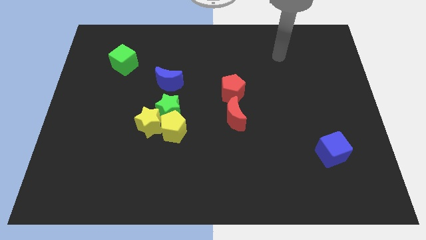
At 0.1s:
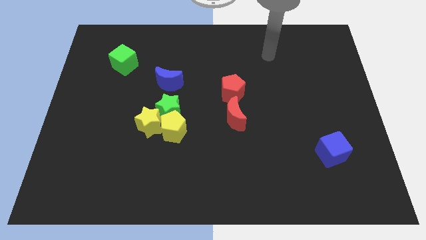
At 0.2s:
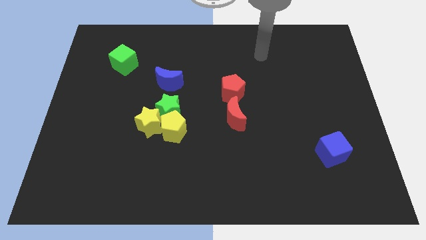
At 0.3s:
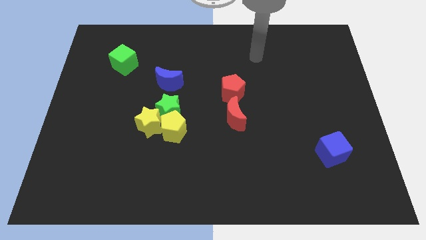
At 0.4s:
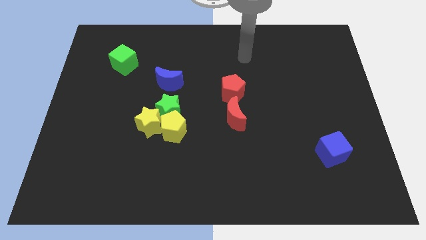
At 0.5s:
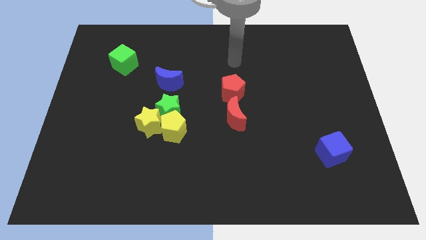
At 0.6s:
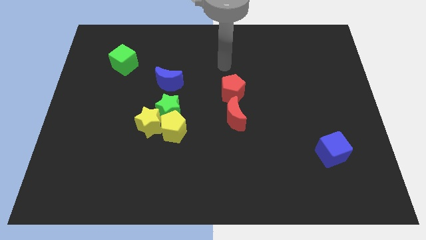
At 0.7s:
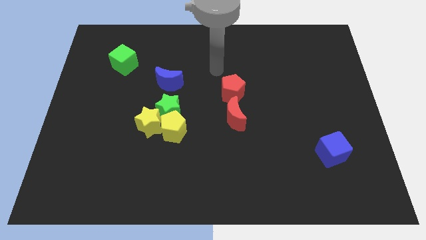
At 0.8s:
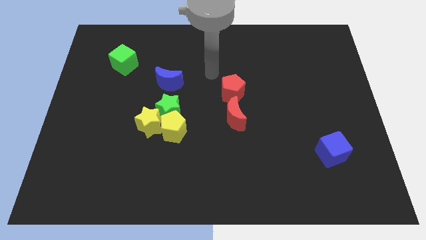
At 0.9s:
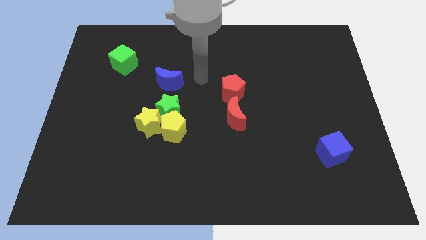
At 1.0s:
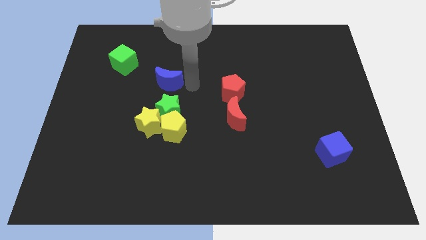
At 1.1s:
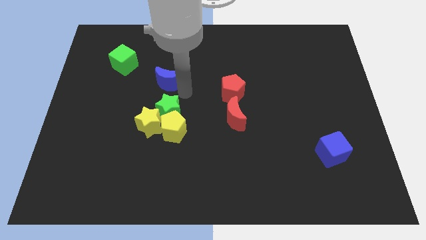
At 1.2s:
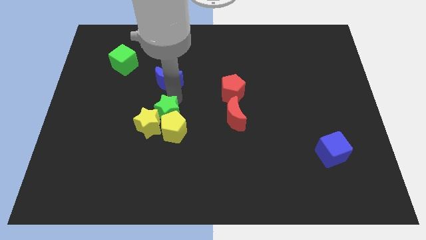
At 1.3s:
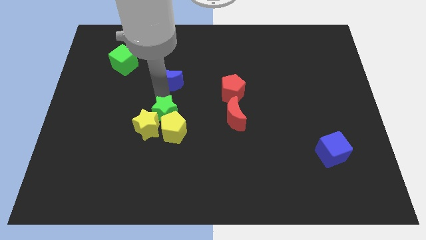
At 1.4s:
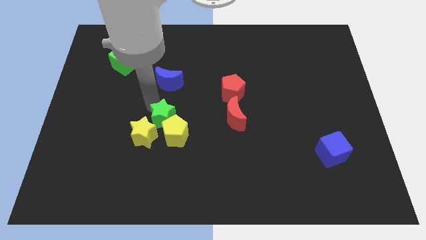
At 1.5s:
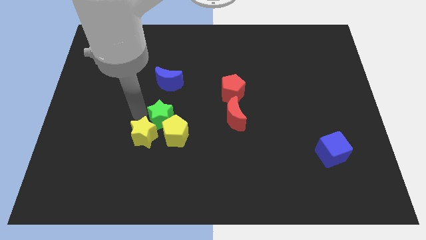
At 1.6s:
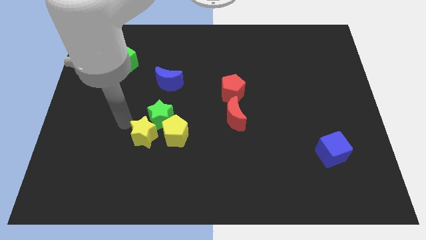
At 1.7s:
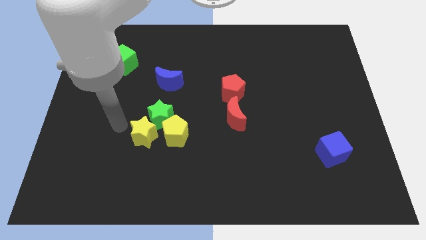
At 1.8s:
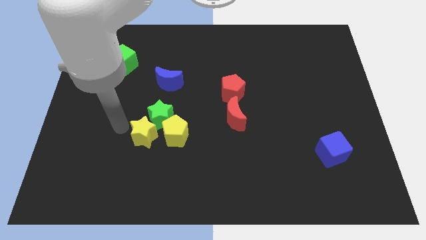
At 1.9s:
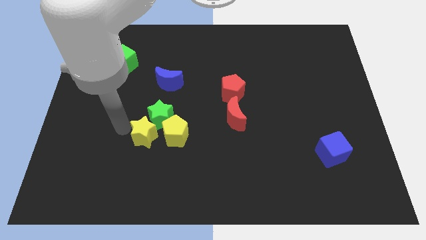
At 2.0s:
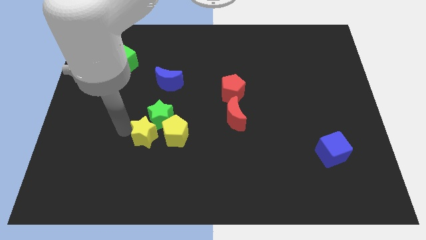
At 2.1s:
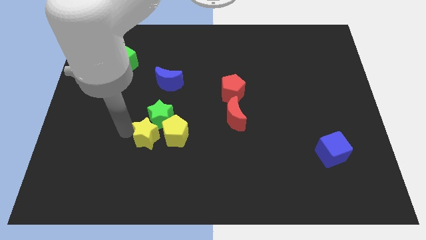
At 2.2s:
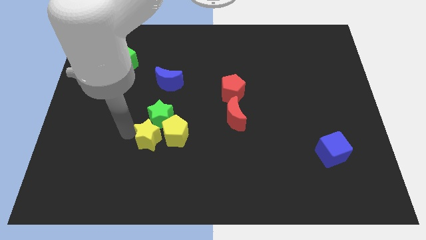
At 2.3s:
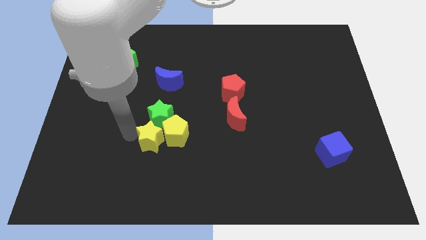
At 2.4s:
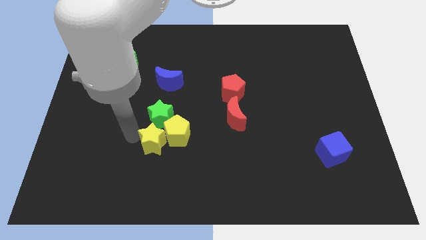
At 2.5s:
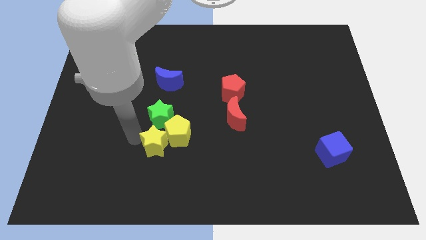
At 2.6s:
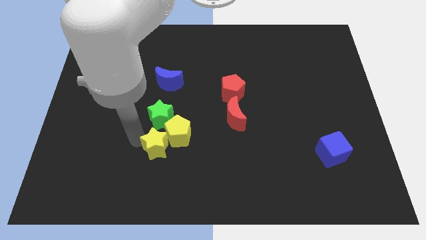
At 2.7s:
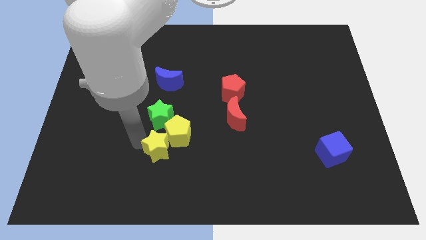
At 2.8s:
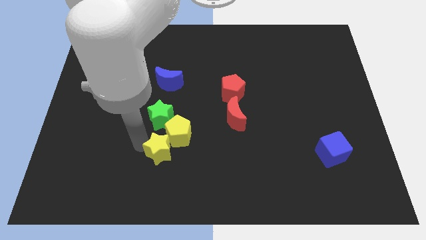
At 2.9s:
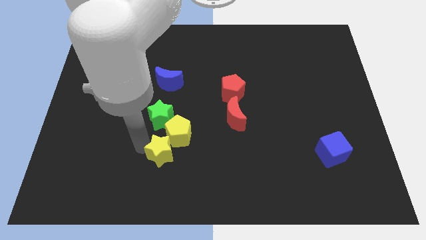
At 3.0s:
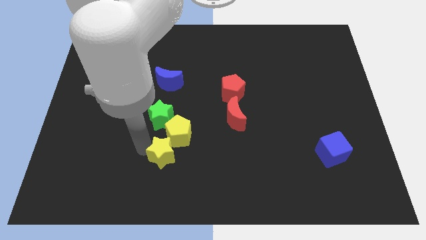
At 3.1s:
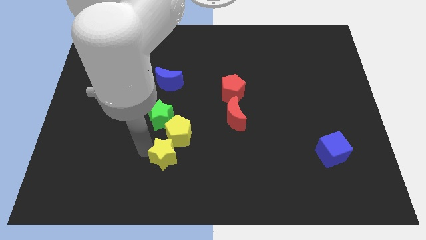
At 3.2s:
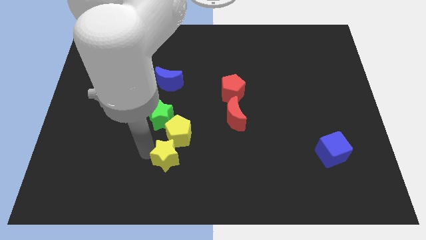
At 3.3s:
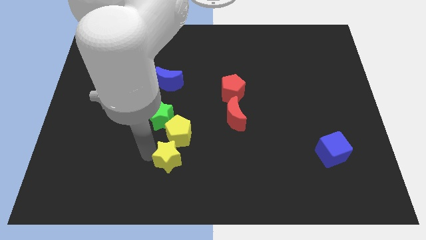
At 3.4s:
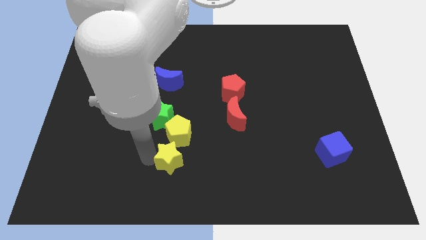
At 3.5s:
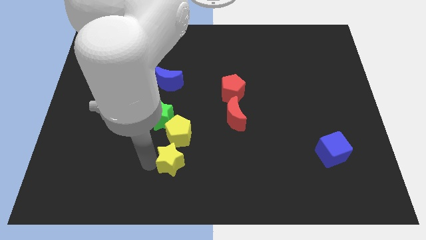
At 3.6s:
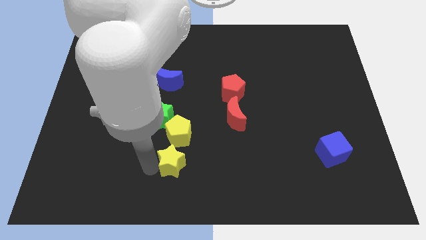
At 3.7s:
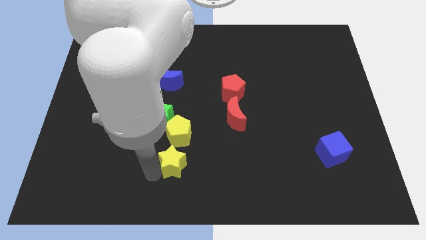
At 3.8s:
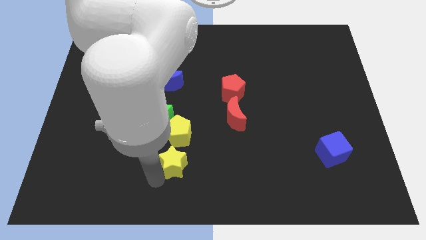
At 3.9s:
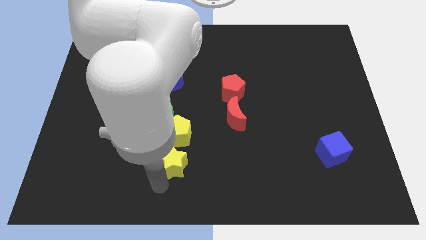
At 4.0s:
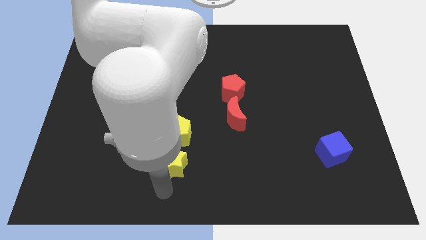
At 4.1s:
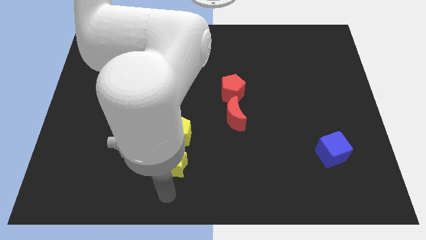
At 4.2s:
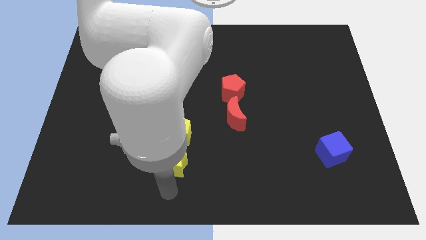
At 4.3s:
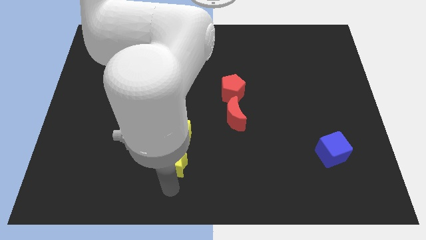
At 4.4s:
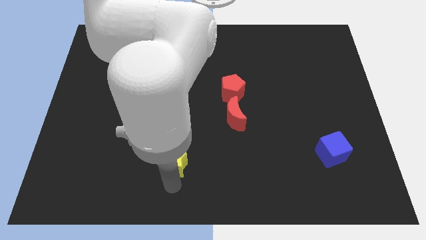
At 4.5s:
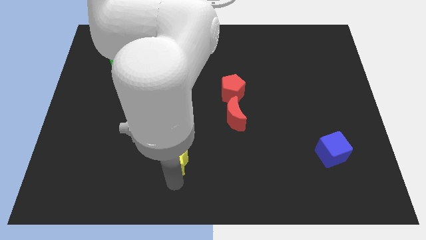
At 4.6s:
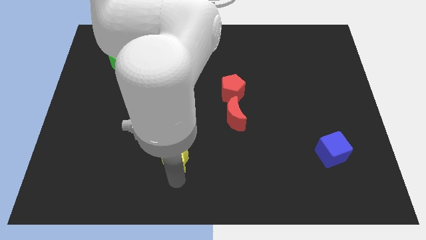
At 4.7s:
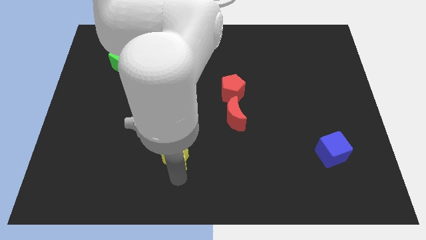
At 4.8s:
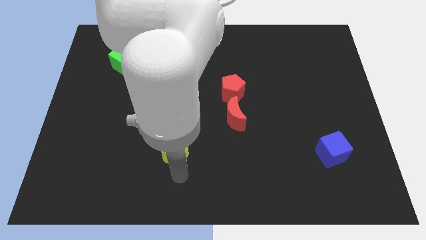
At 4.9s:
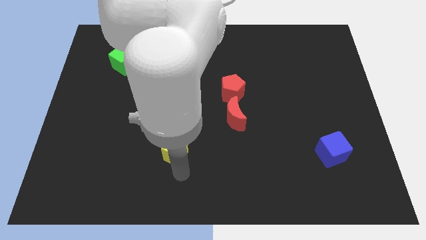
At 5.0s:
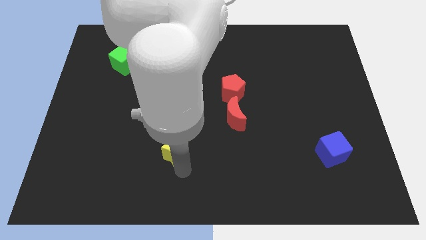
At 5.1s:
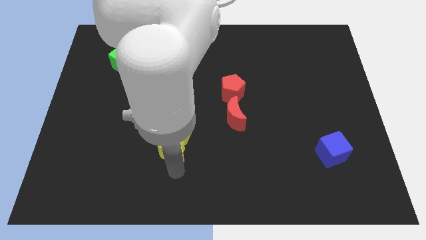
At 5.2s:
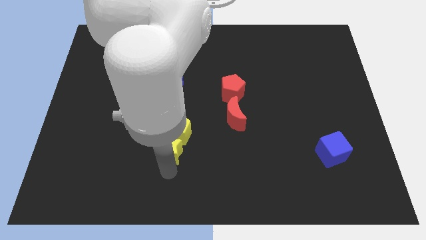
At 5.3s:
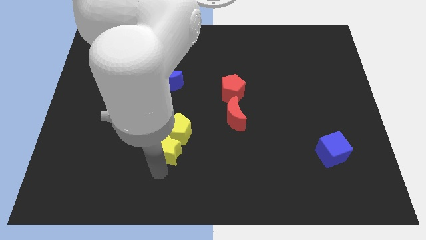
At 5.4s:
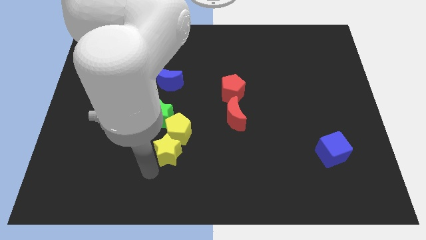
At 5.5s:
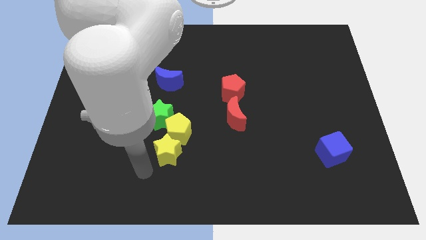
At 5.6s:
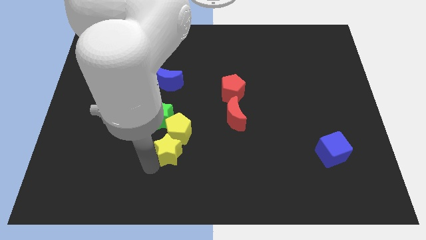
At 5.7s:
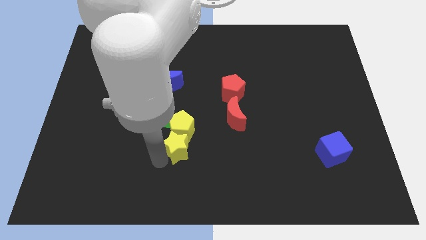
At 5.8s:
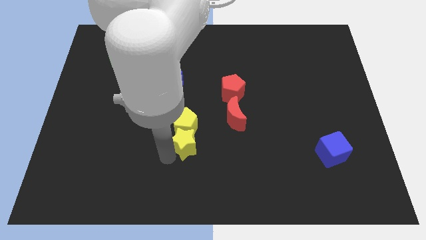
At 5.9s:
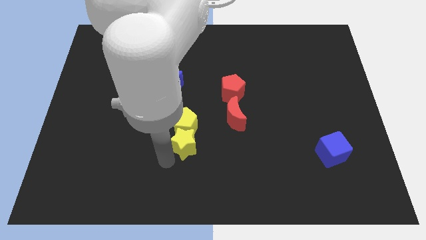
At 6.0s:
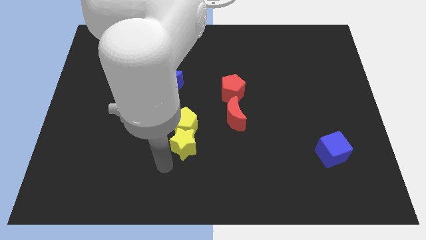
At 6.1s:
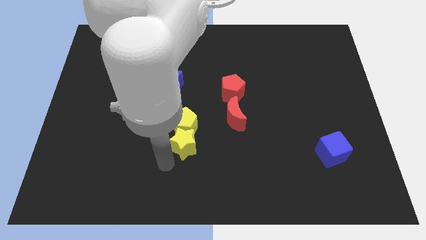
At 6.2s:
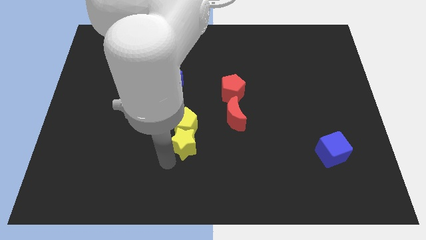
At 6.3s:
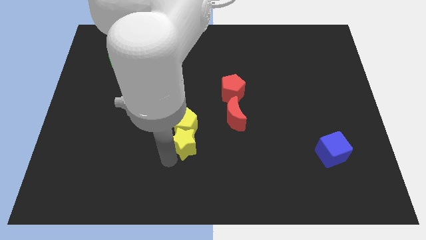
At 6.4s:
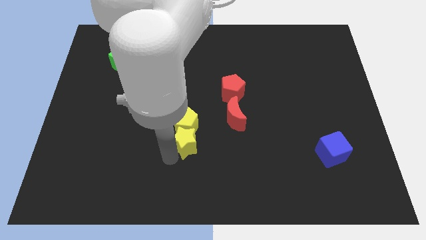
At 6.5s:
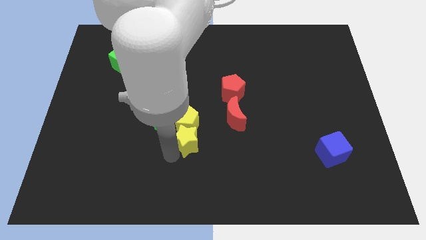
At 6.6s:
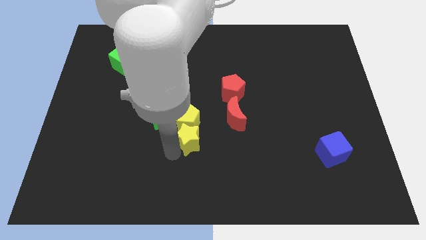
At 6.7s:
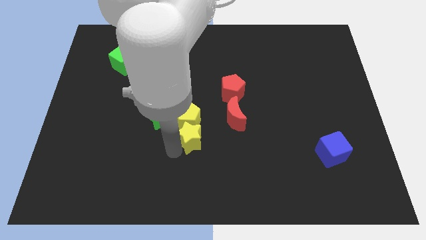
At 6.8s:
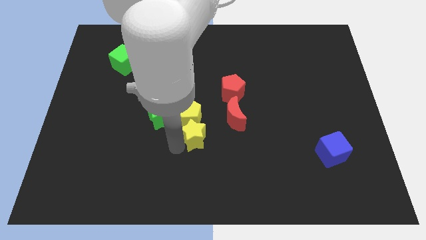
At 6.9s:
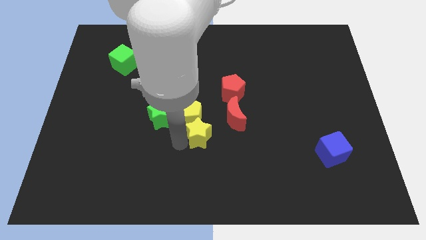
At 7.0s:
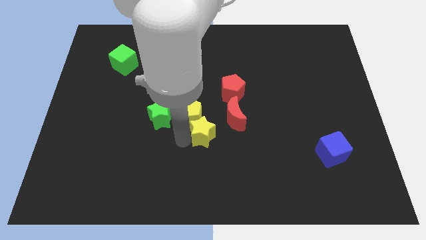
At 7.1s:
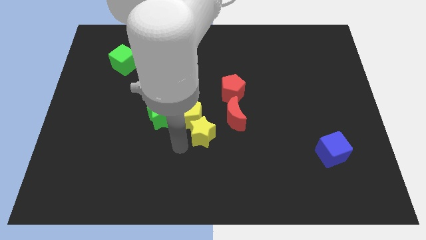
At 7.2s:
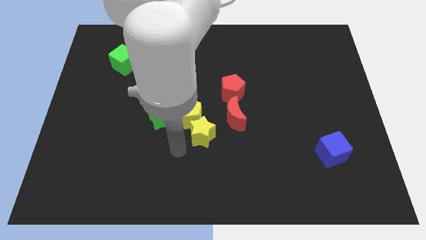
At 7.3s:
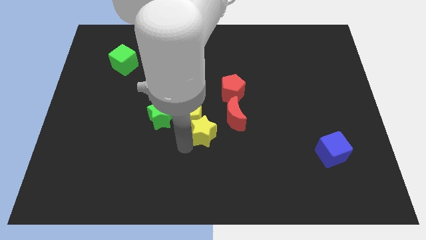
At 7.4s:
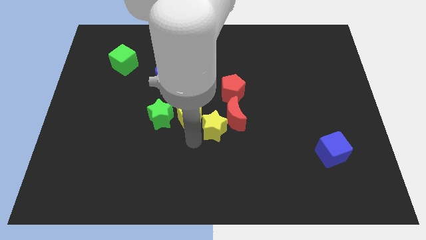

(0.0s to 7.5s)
move the yellow star to the red moon

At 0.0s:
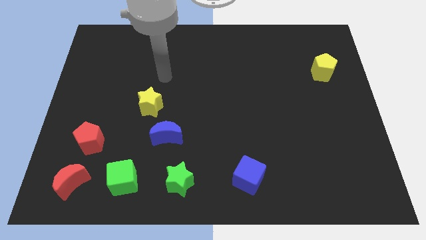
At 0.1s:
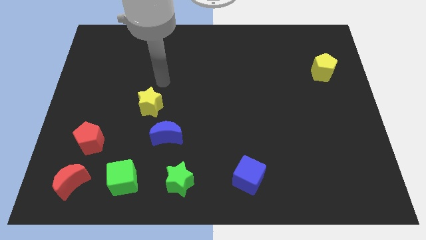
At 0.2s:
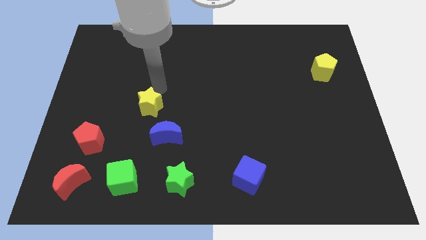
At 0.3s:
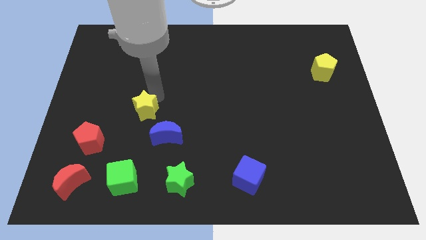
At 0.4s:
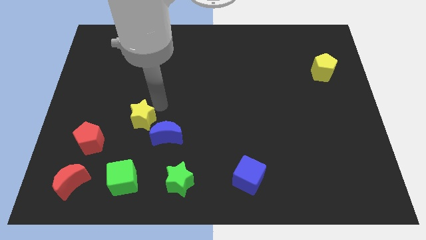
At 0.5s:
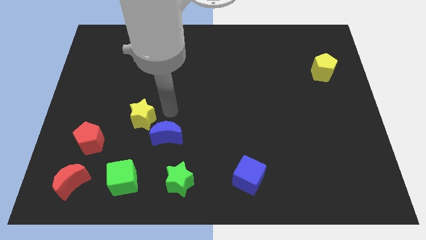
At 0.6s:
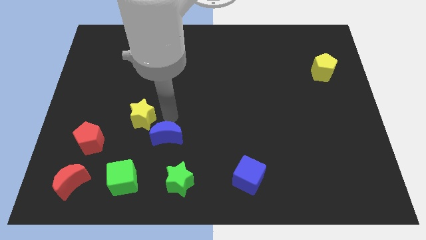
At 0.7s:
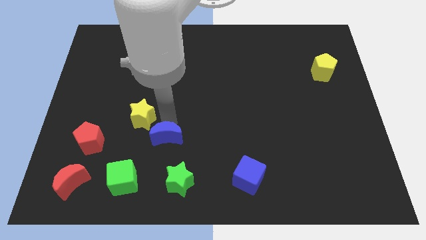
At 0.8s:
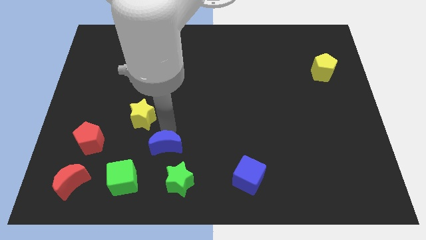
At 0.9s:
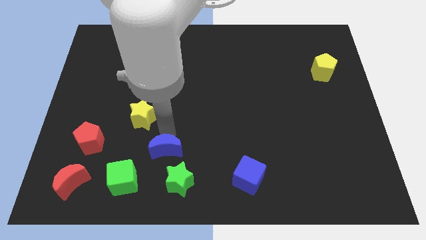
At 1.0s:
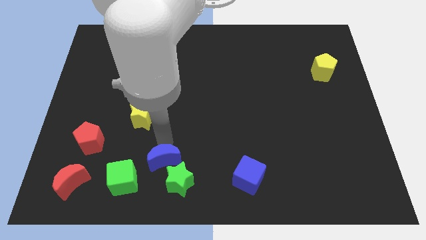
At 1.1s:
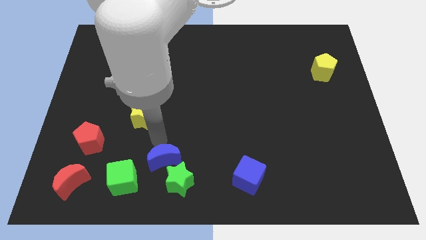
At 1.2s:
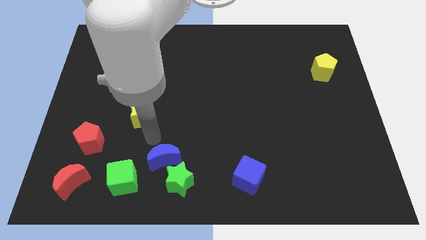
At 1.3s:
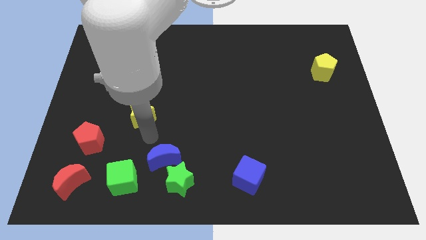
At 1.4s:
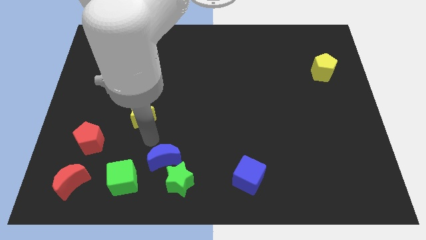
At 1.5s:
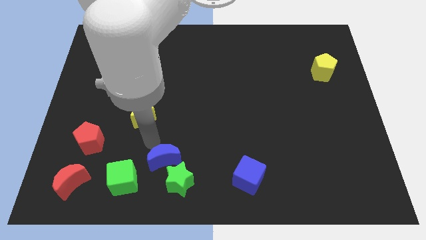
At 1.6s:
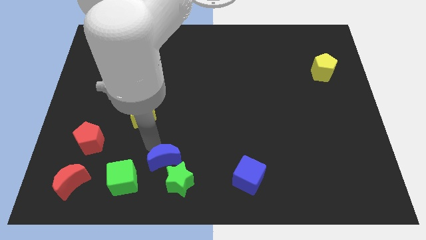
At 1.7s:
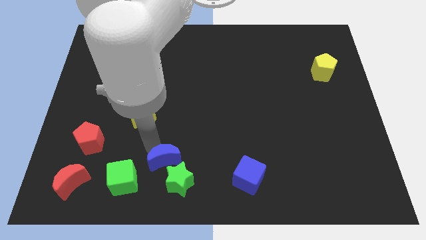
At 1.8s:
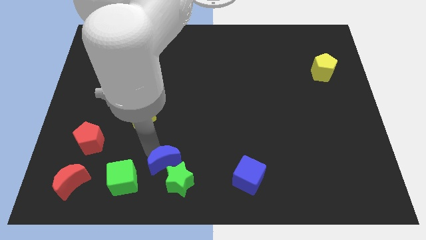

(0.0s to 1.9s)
push the blue moon towards the green star
